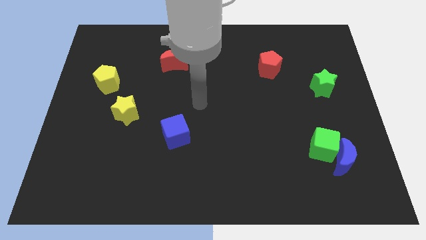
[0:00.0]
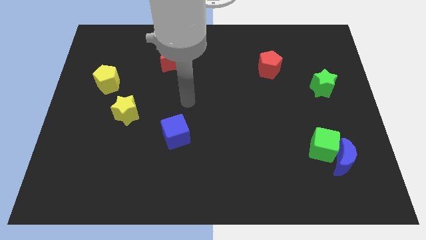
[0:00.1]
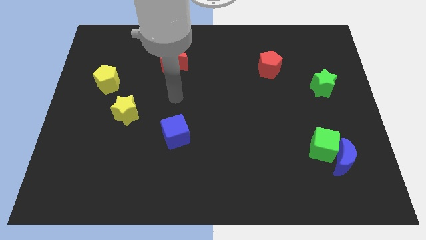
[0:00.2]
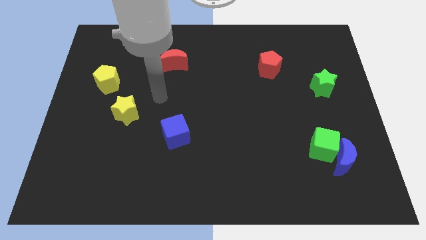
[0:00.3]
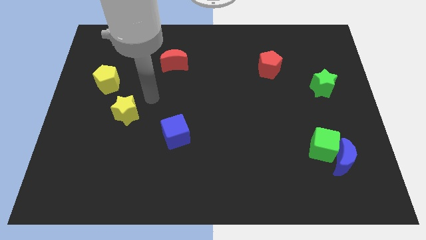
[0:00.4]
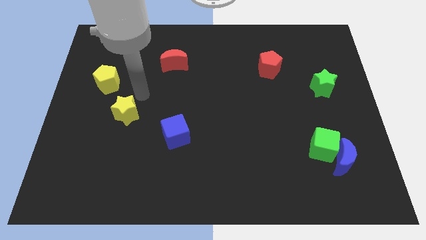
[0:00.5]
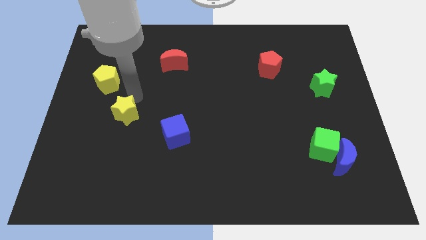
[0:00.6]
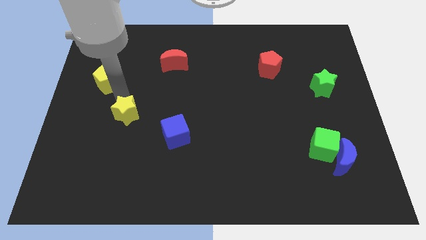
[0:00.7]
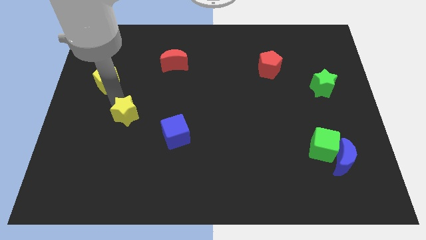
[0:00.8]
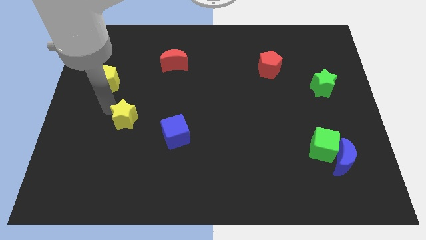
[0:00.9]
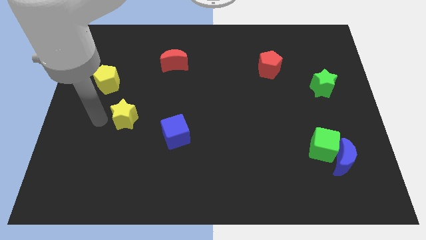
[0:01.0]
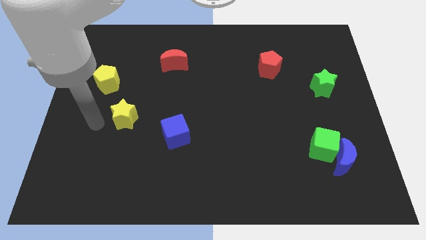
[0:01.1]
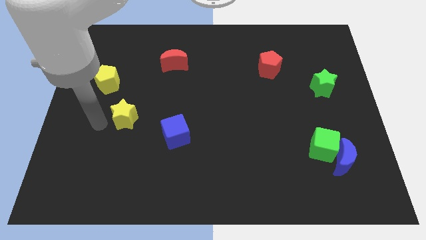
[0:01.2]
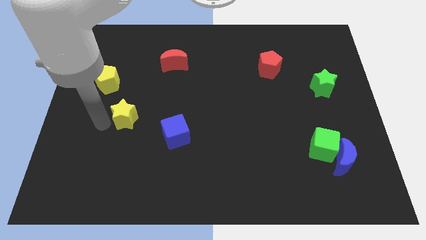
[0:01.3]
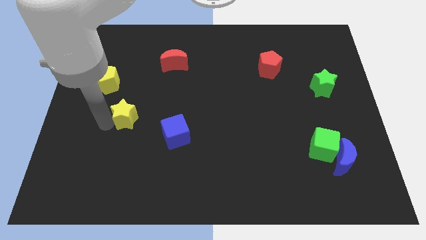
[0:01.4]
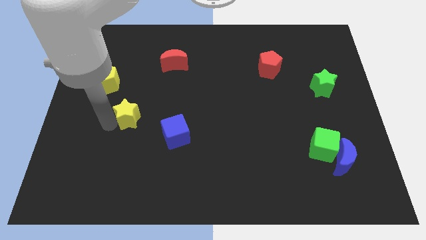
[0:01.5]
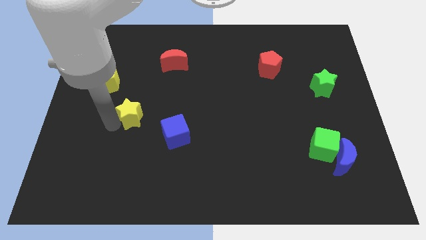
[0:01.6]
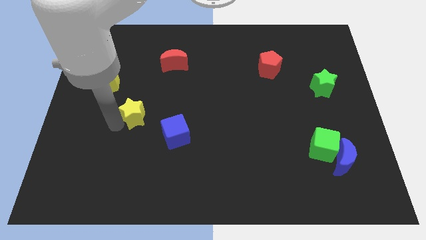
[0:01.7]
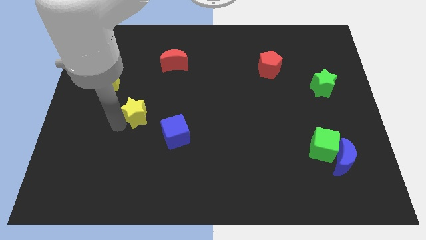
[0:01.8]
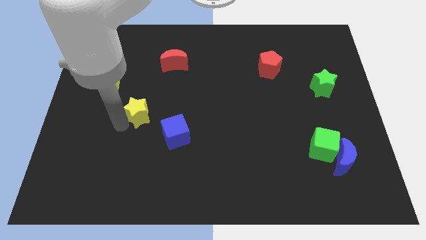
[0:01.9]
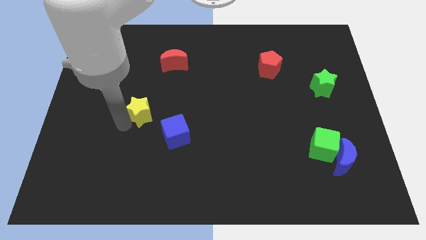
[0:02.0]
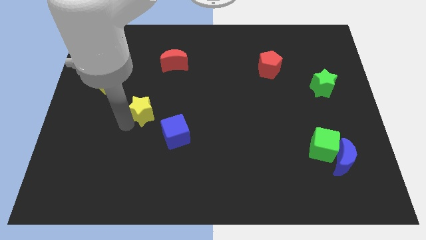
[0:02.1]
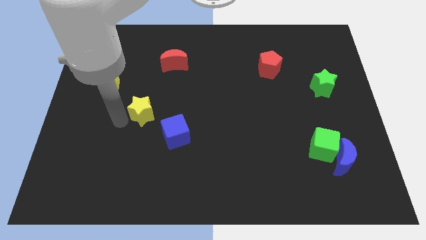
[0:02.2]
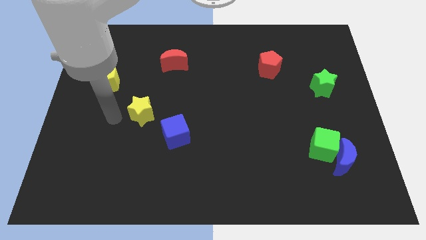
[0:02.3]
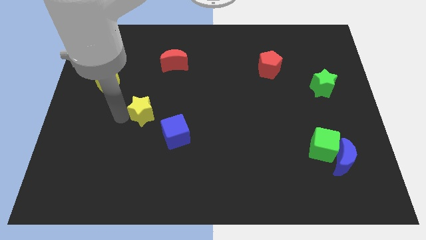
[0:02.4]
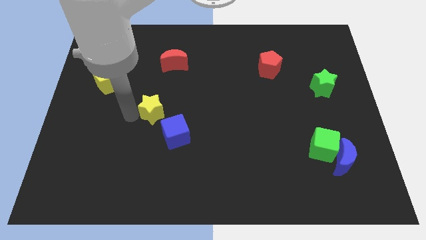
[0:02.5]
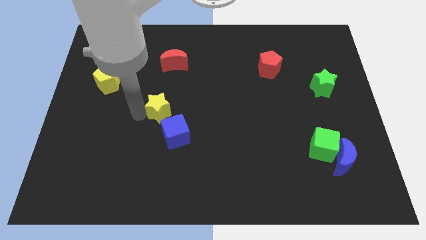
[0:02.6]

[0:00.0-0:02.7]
push the yellow star to the right somewhat

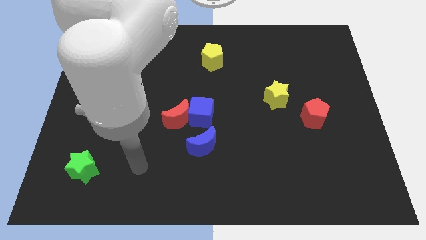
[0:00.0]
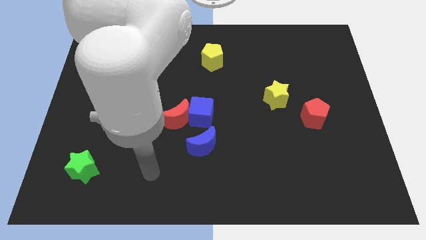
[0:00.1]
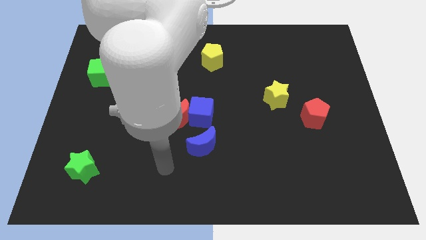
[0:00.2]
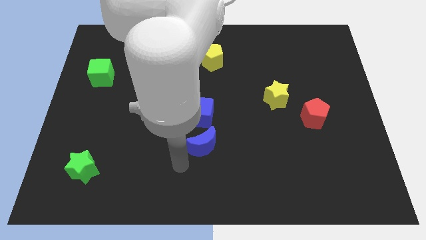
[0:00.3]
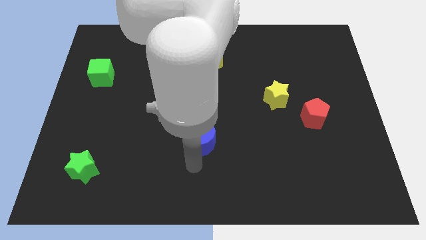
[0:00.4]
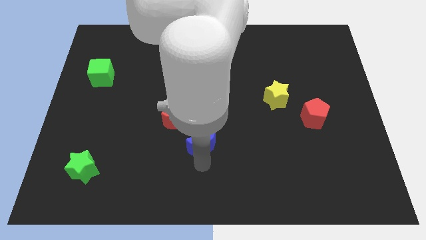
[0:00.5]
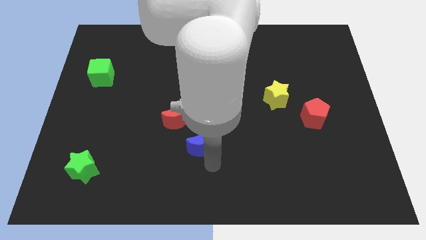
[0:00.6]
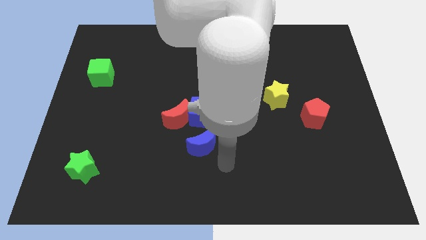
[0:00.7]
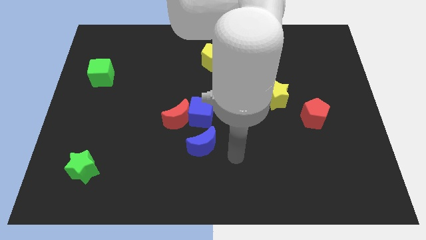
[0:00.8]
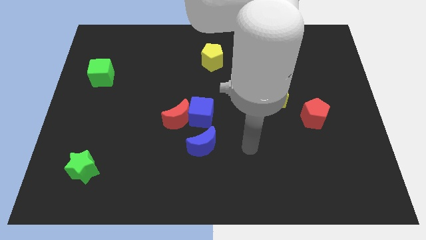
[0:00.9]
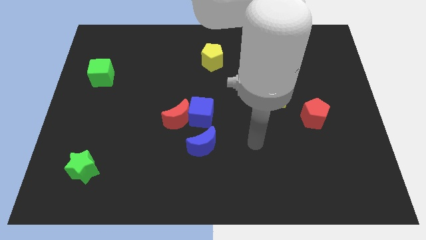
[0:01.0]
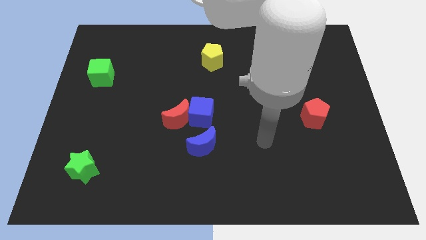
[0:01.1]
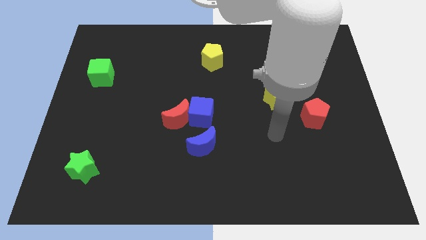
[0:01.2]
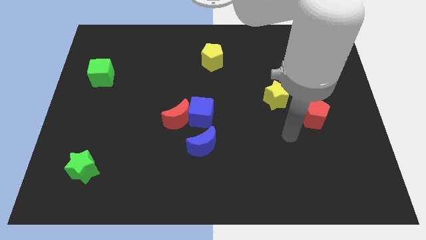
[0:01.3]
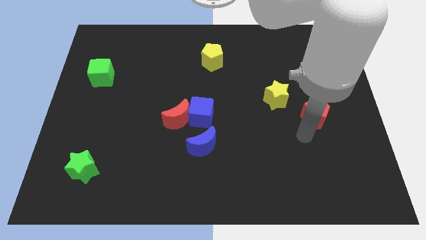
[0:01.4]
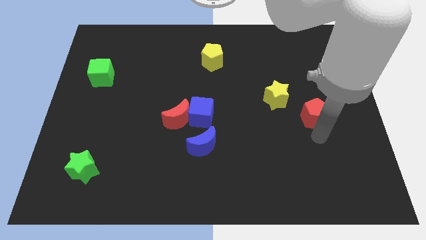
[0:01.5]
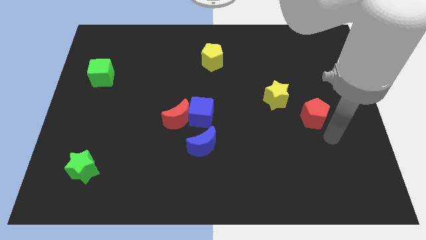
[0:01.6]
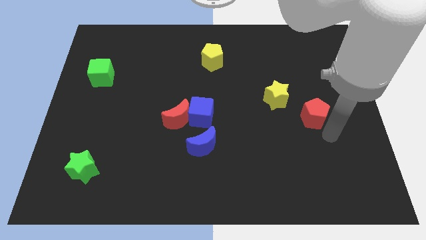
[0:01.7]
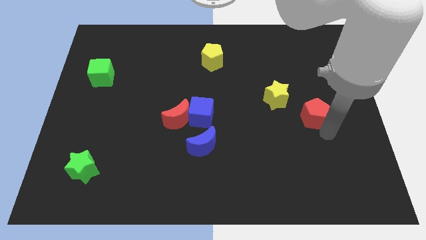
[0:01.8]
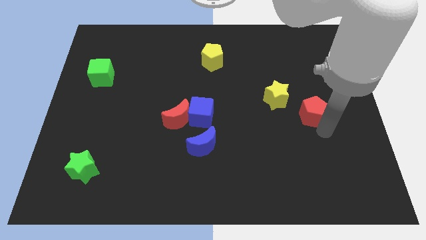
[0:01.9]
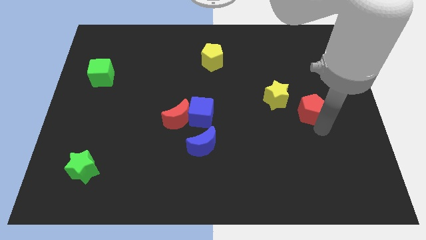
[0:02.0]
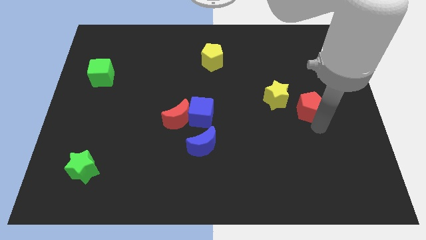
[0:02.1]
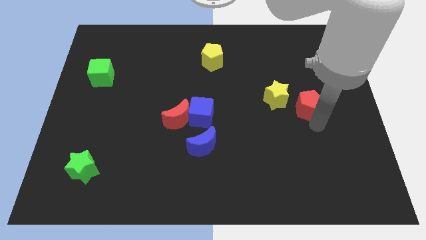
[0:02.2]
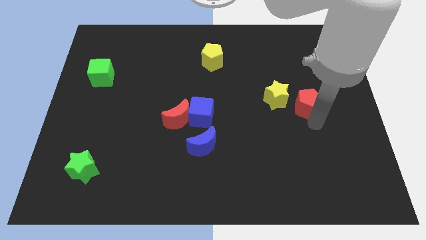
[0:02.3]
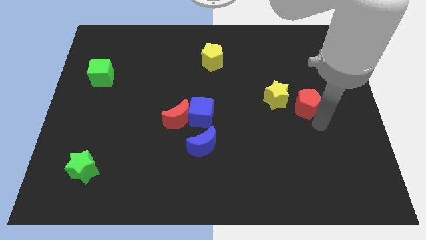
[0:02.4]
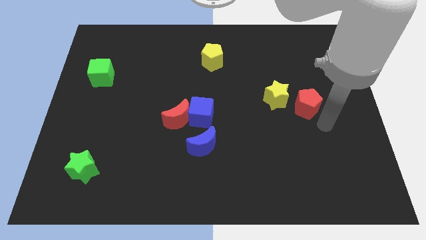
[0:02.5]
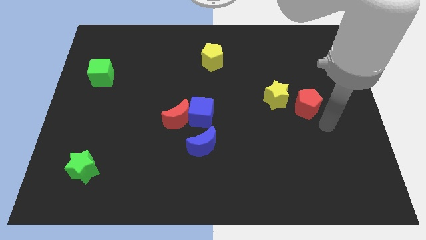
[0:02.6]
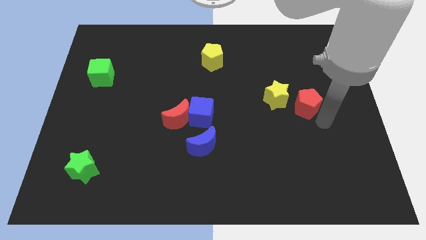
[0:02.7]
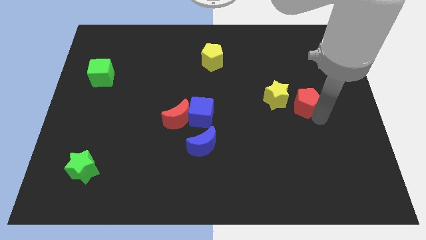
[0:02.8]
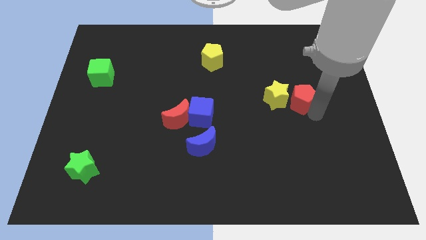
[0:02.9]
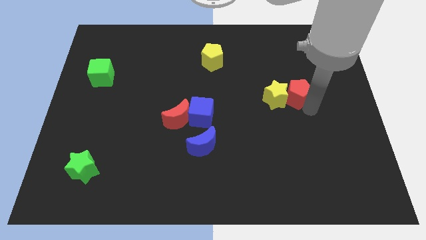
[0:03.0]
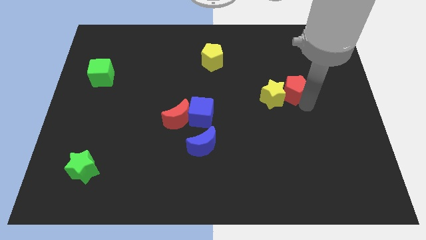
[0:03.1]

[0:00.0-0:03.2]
slide the red pentagon diagonally upwards and to the left a little bit

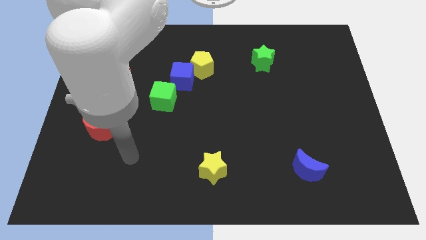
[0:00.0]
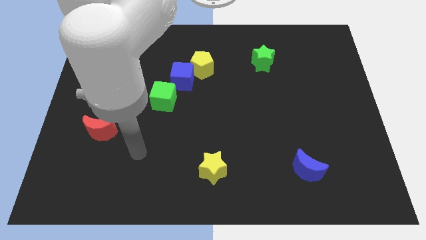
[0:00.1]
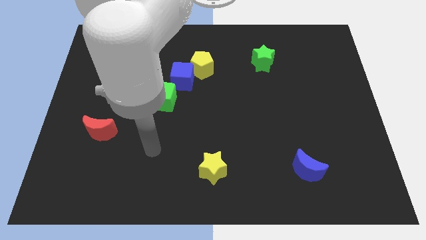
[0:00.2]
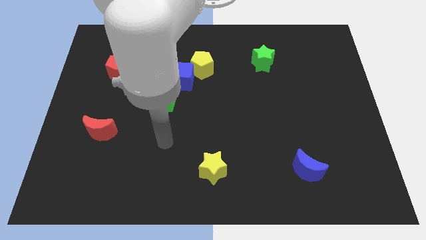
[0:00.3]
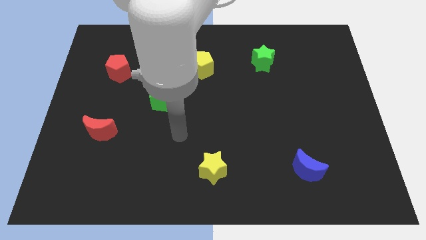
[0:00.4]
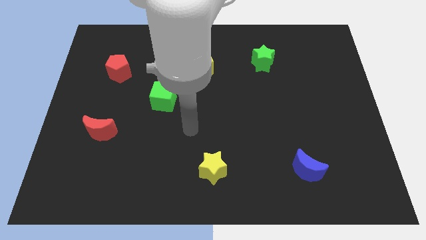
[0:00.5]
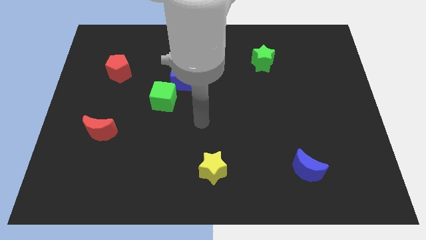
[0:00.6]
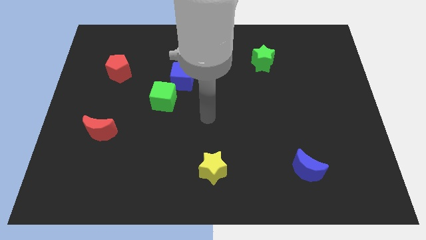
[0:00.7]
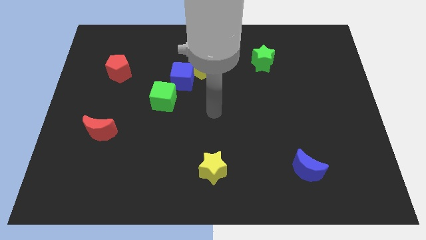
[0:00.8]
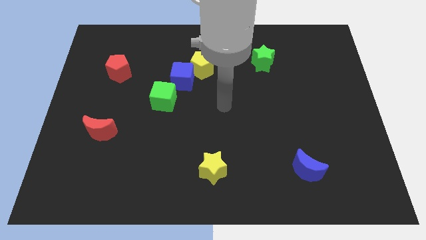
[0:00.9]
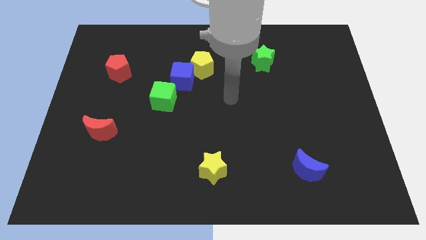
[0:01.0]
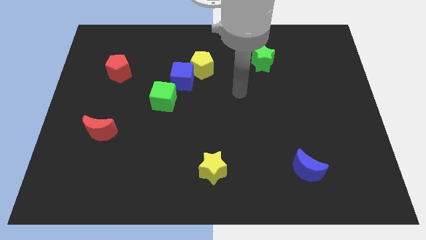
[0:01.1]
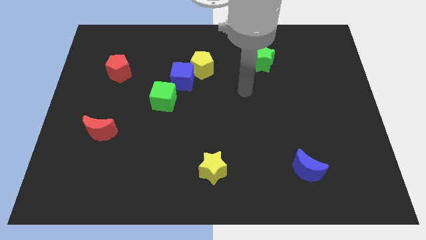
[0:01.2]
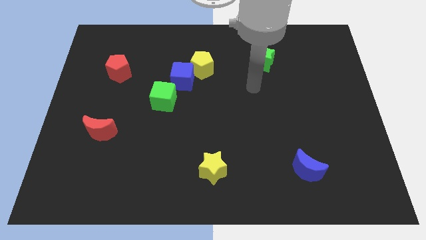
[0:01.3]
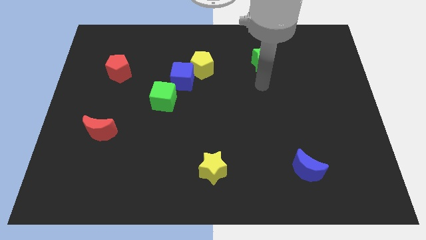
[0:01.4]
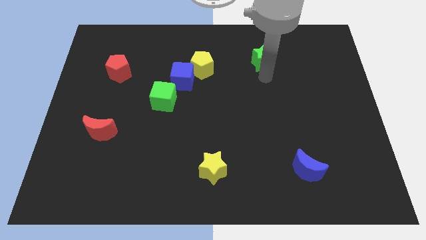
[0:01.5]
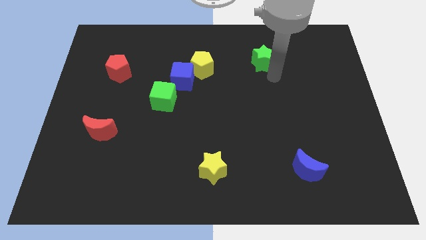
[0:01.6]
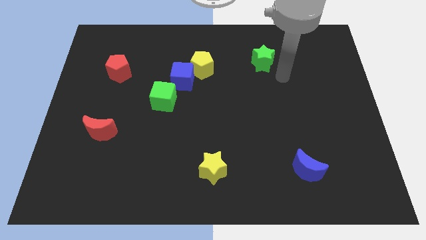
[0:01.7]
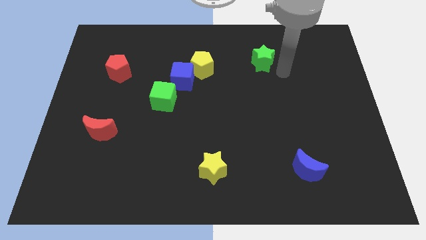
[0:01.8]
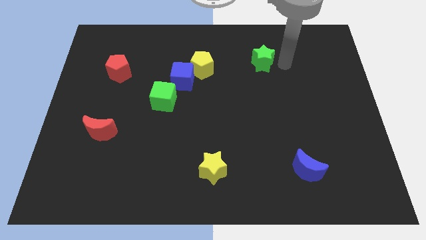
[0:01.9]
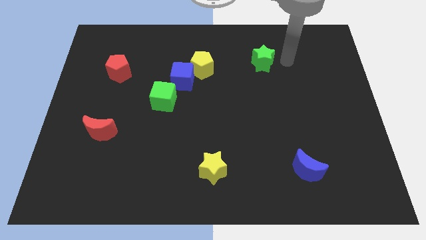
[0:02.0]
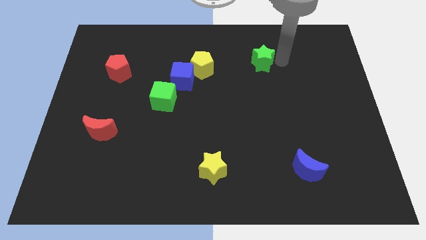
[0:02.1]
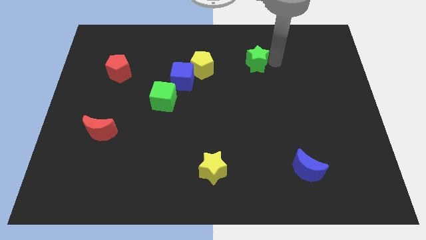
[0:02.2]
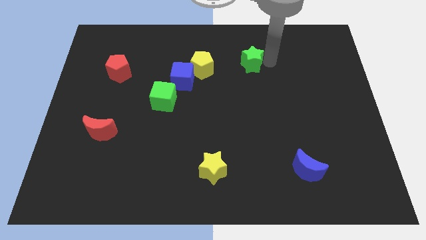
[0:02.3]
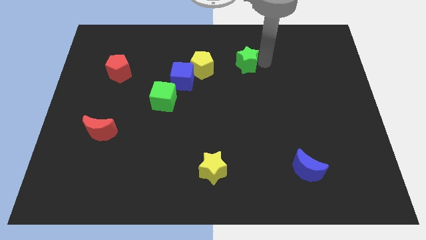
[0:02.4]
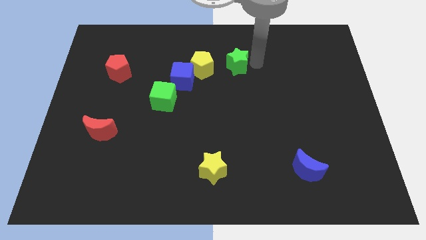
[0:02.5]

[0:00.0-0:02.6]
move the green star left slightly
